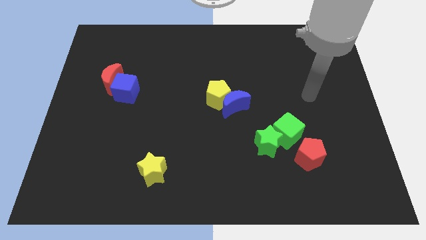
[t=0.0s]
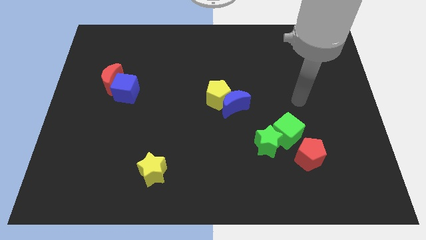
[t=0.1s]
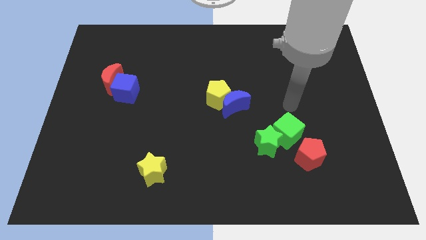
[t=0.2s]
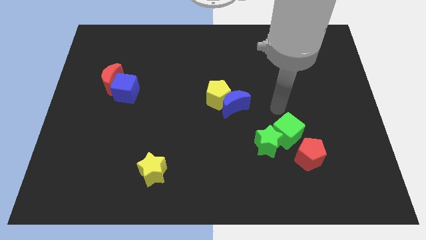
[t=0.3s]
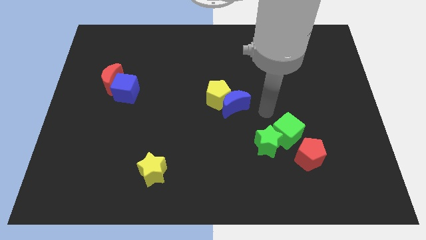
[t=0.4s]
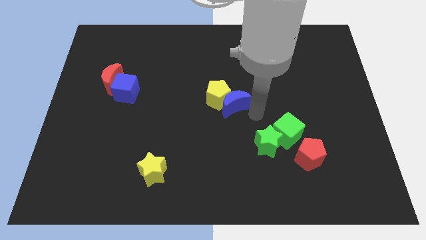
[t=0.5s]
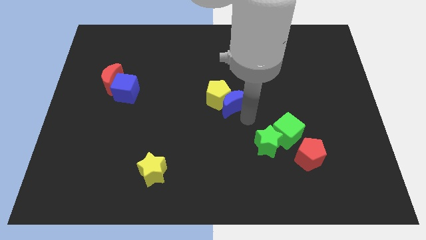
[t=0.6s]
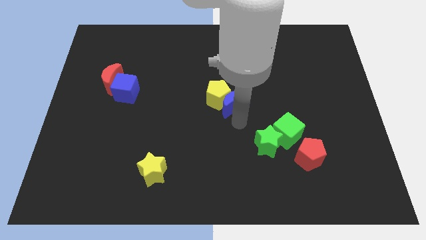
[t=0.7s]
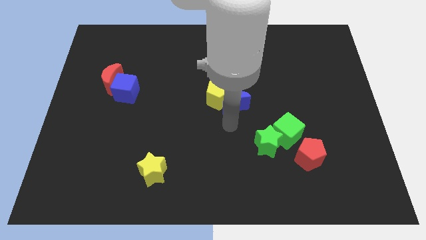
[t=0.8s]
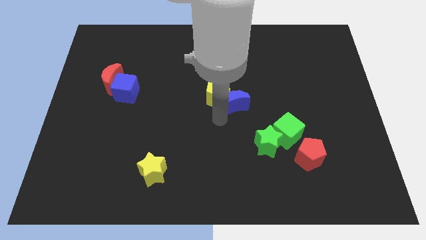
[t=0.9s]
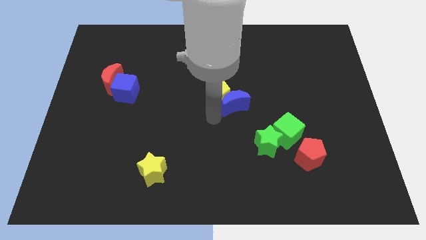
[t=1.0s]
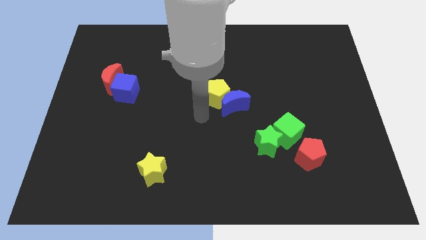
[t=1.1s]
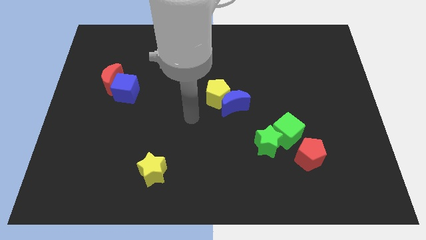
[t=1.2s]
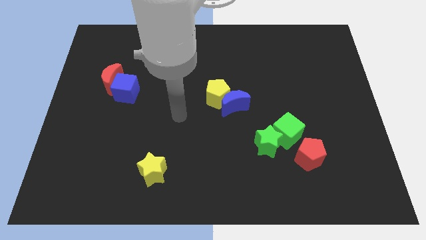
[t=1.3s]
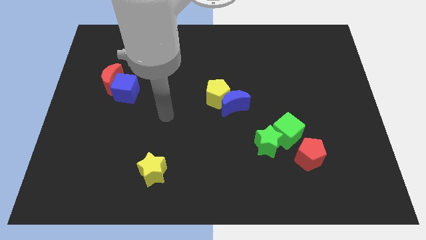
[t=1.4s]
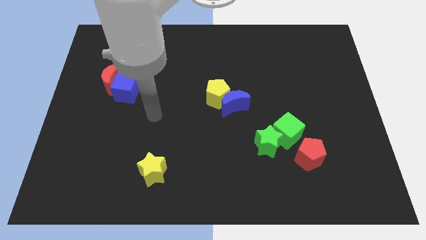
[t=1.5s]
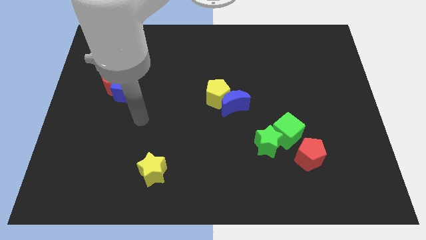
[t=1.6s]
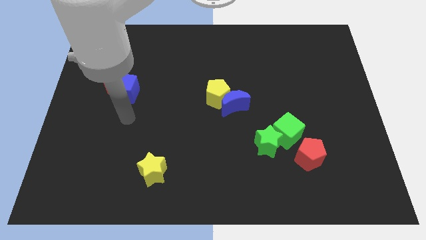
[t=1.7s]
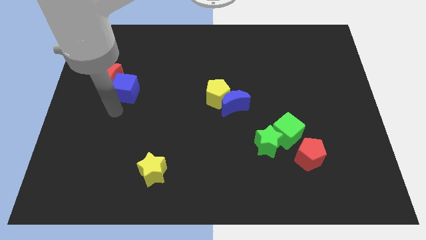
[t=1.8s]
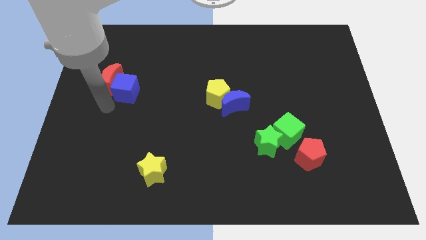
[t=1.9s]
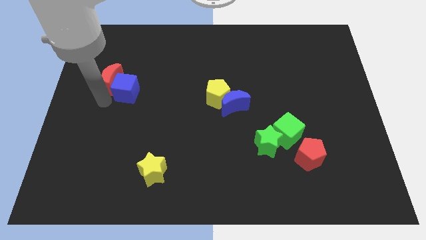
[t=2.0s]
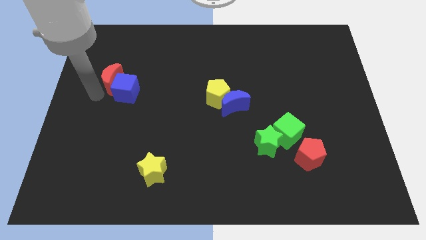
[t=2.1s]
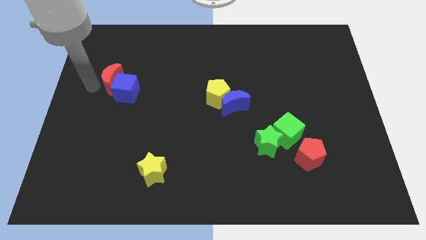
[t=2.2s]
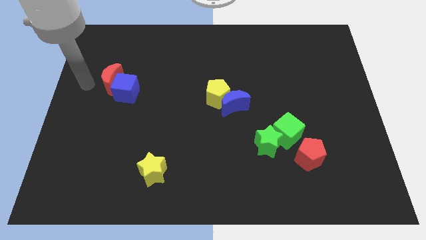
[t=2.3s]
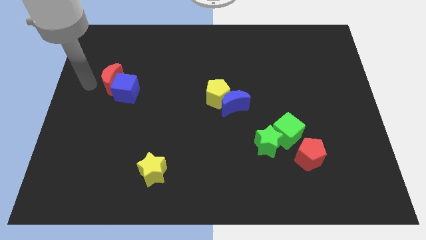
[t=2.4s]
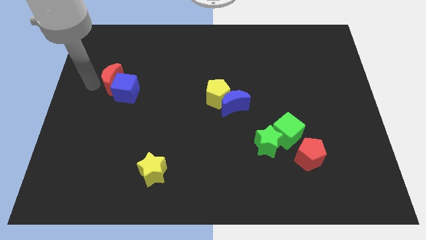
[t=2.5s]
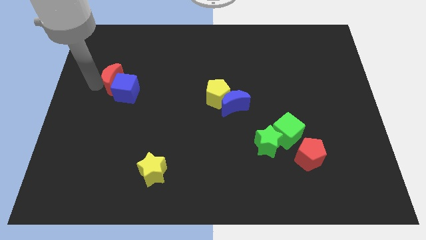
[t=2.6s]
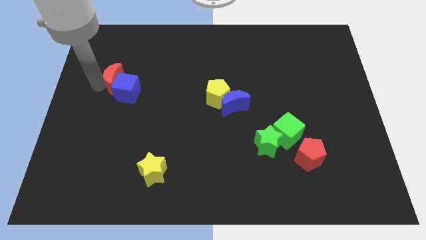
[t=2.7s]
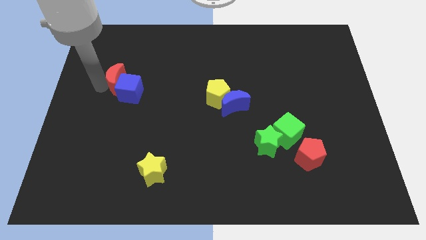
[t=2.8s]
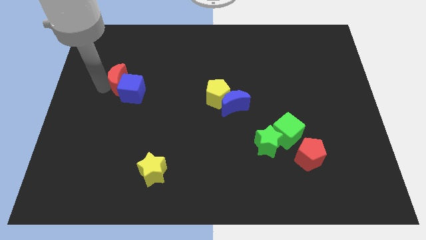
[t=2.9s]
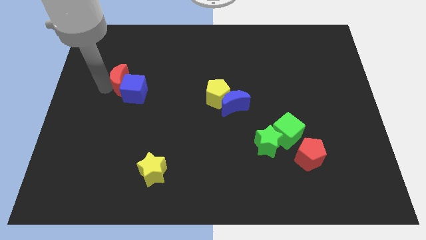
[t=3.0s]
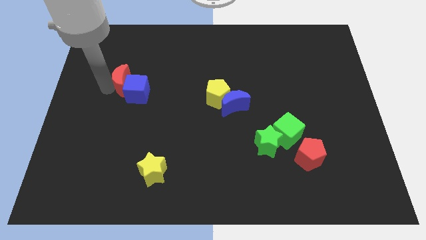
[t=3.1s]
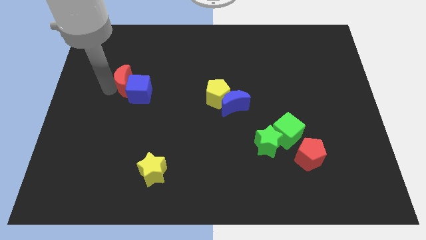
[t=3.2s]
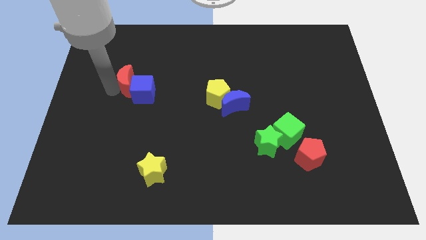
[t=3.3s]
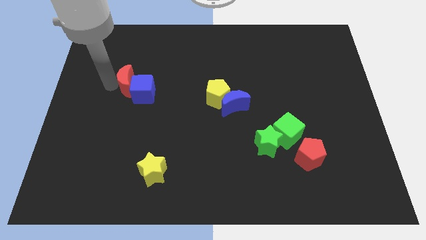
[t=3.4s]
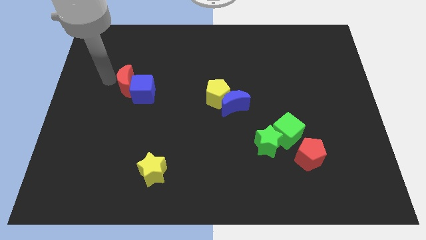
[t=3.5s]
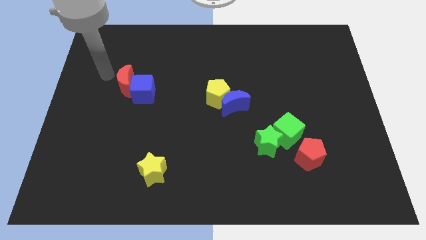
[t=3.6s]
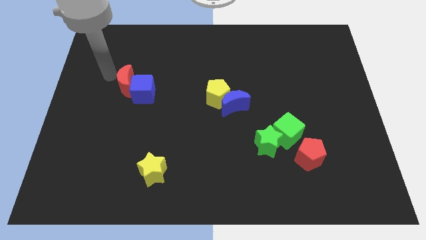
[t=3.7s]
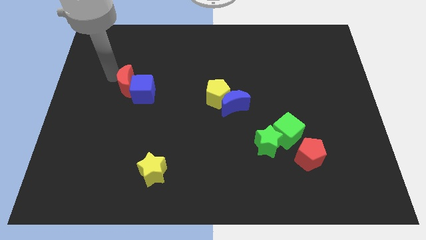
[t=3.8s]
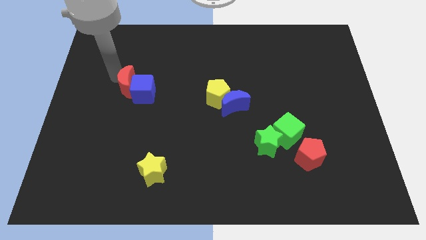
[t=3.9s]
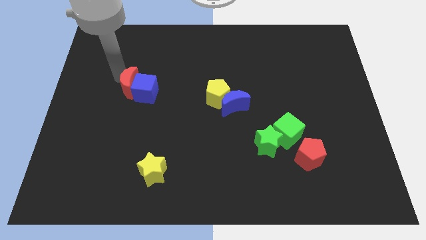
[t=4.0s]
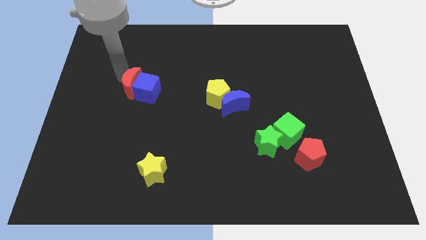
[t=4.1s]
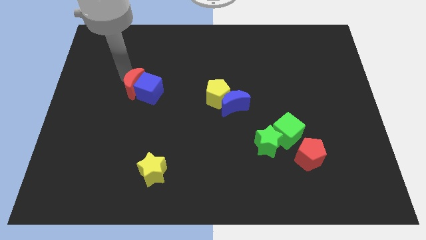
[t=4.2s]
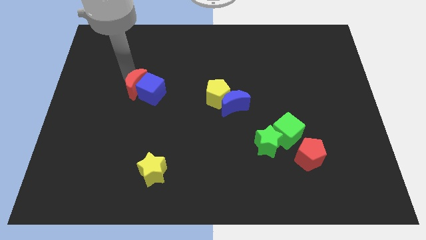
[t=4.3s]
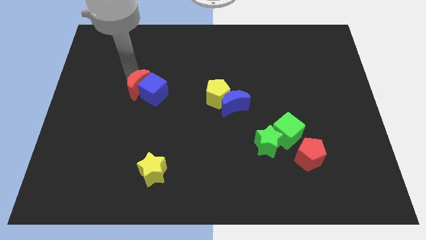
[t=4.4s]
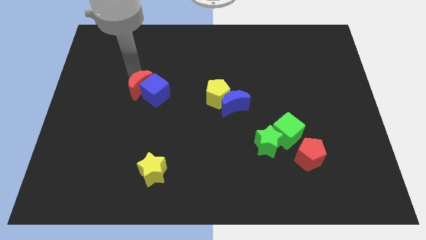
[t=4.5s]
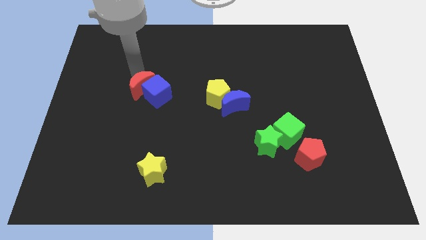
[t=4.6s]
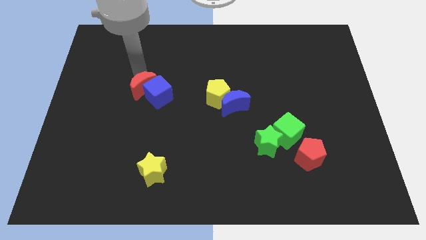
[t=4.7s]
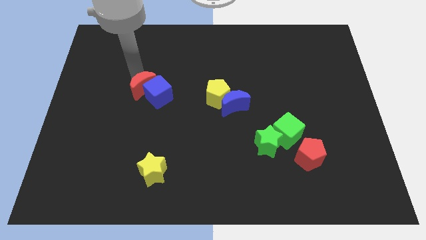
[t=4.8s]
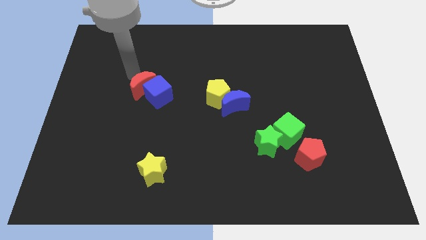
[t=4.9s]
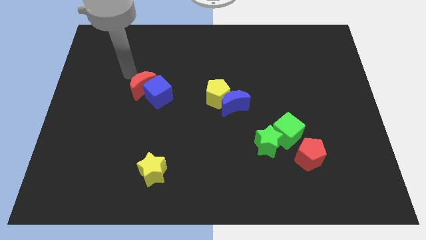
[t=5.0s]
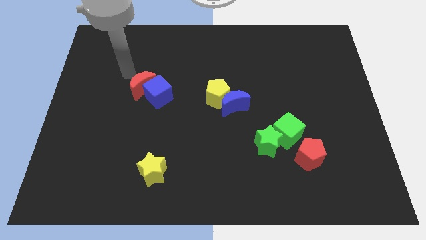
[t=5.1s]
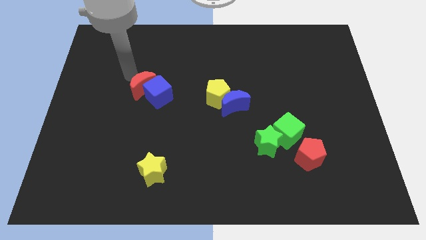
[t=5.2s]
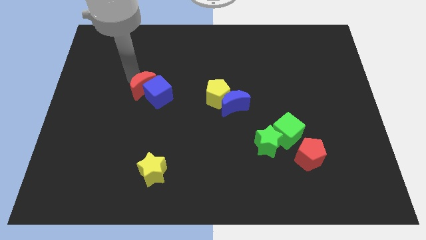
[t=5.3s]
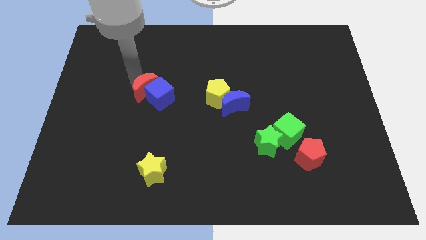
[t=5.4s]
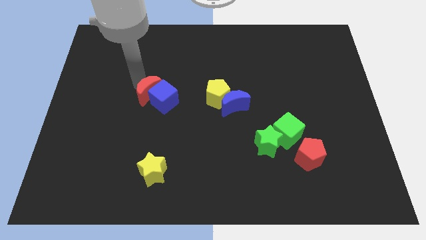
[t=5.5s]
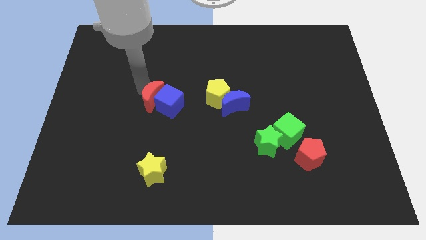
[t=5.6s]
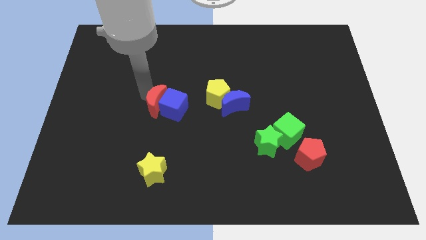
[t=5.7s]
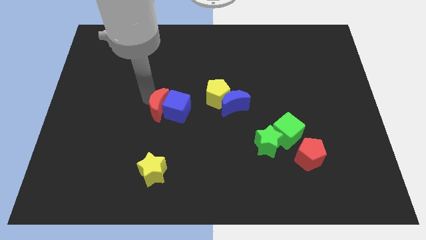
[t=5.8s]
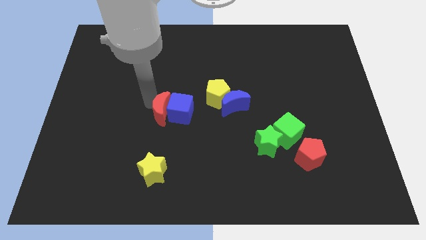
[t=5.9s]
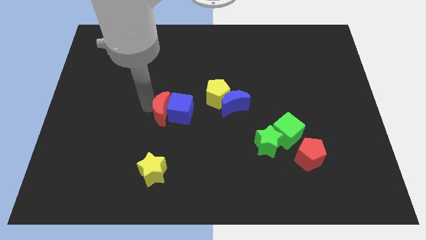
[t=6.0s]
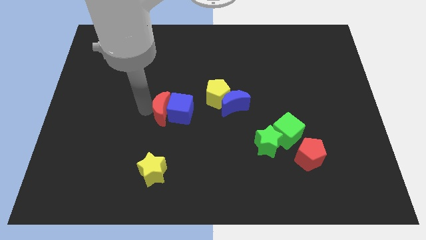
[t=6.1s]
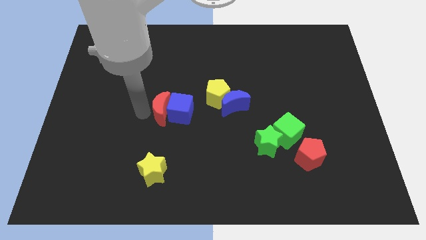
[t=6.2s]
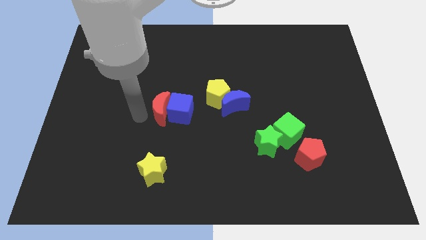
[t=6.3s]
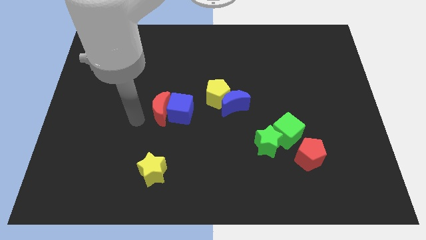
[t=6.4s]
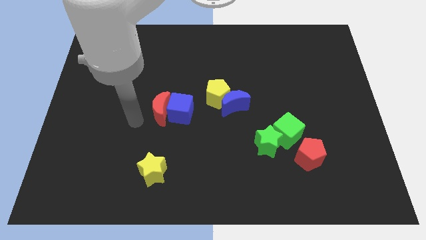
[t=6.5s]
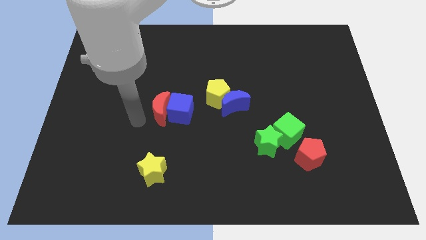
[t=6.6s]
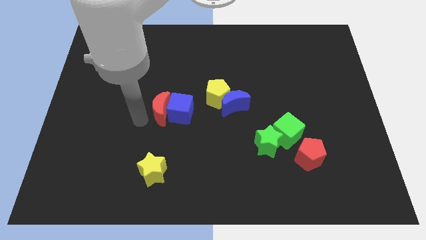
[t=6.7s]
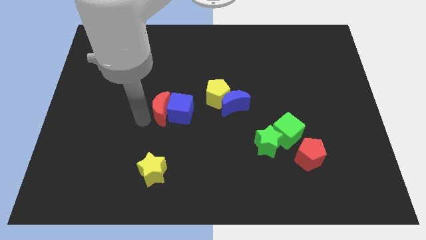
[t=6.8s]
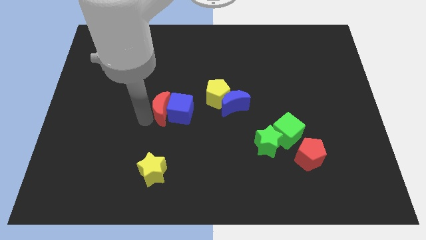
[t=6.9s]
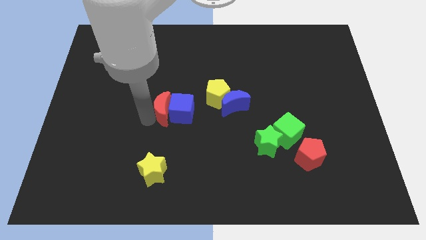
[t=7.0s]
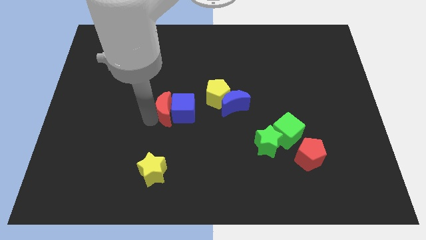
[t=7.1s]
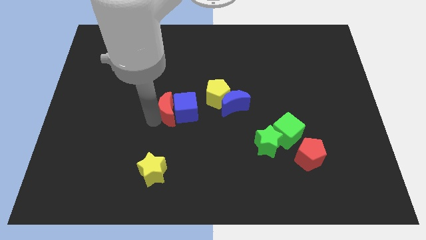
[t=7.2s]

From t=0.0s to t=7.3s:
put the red moon to the left of the blue moon
